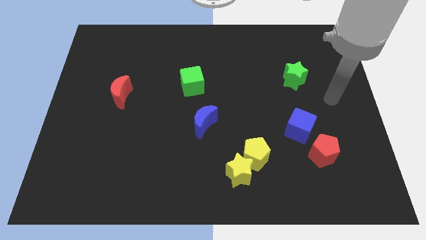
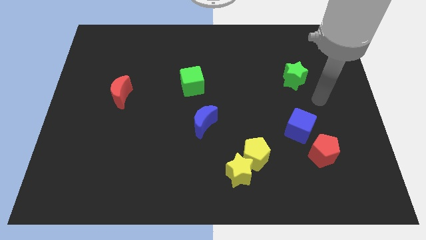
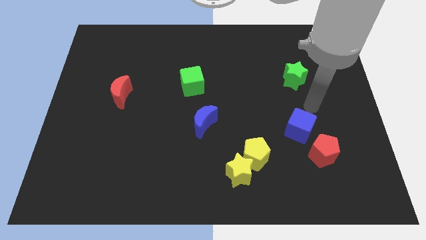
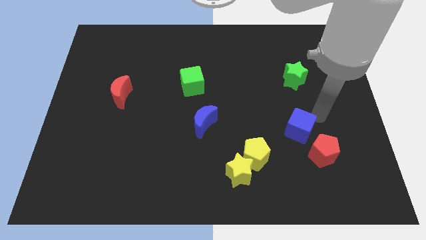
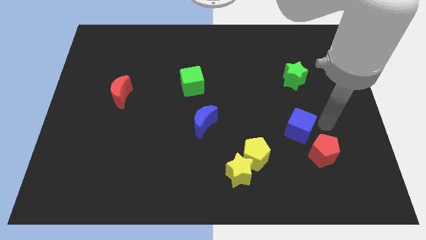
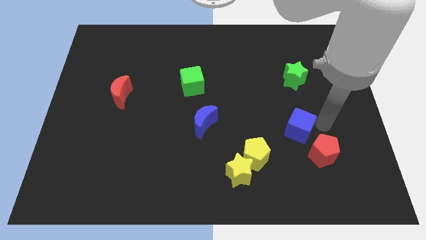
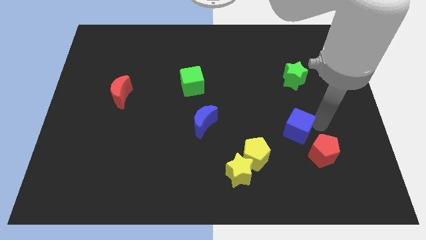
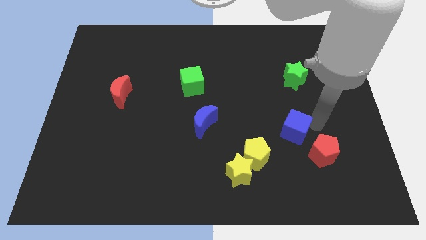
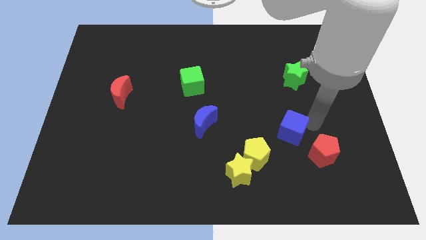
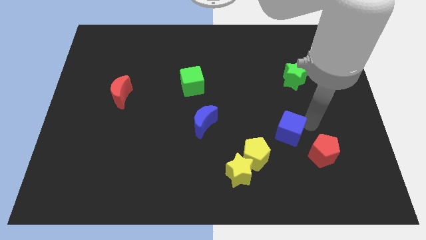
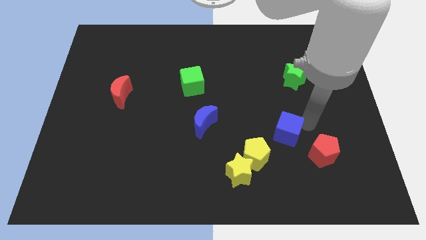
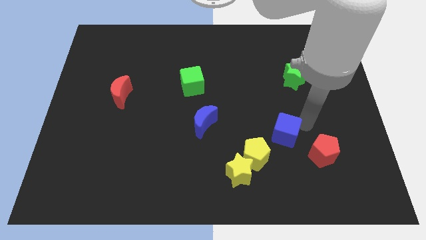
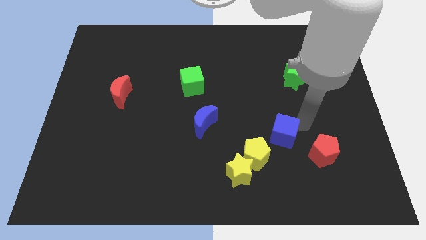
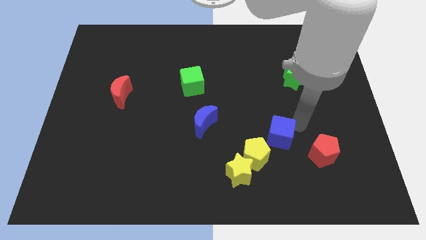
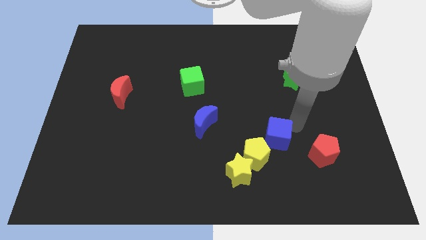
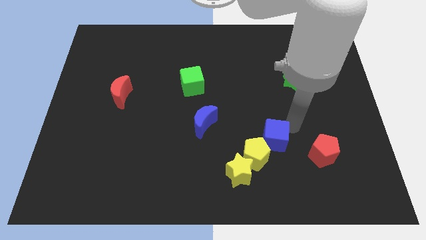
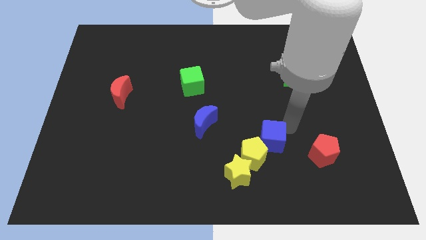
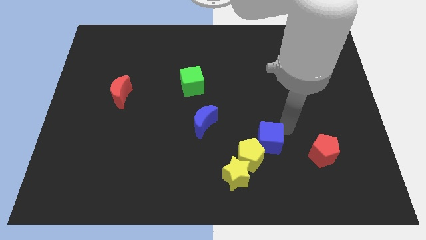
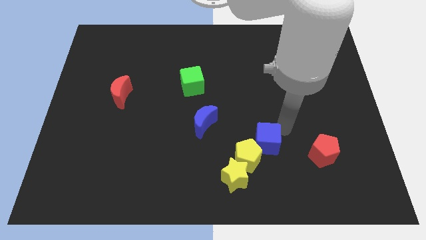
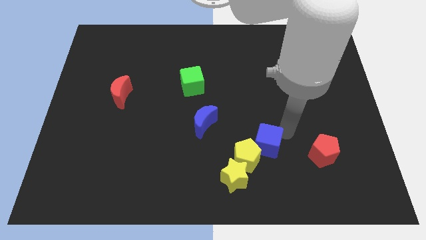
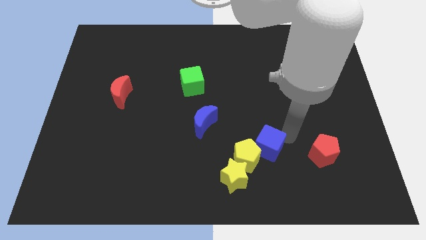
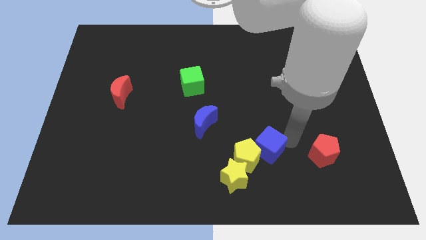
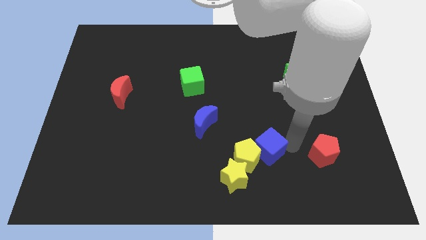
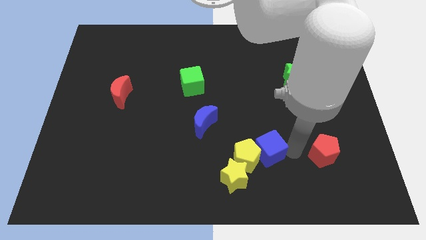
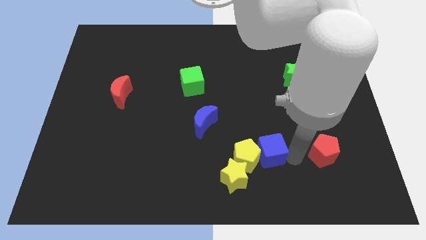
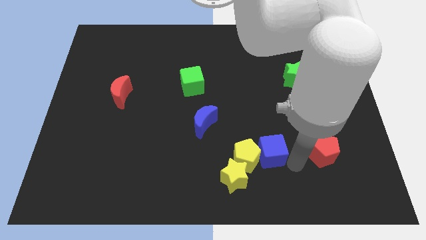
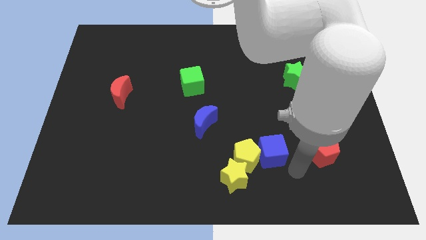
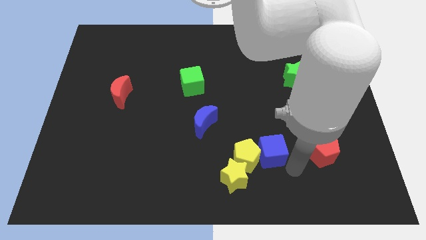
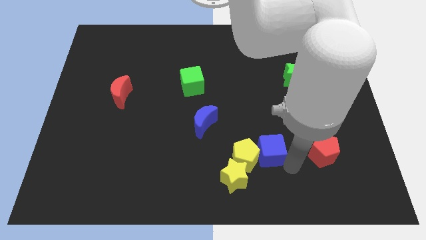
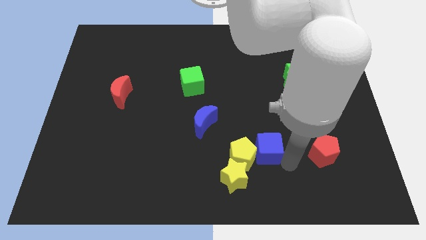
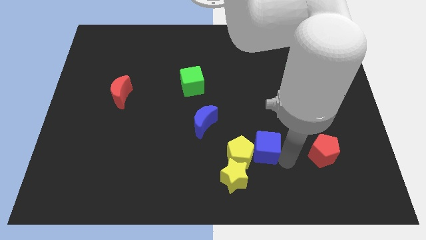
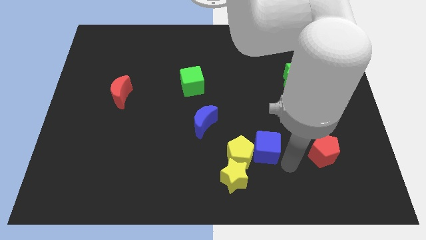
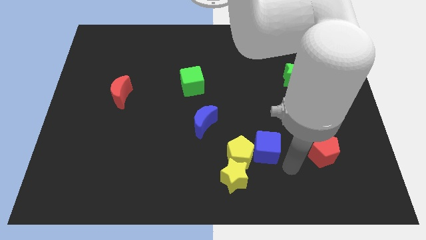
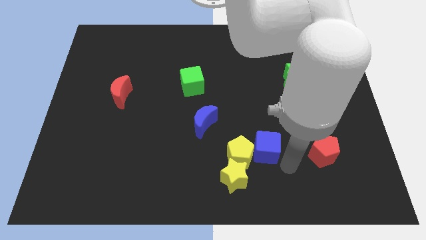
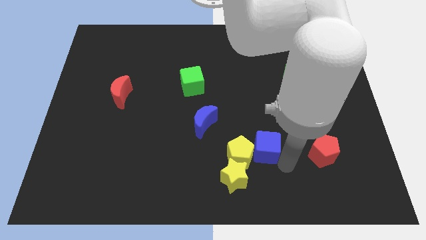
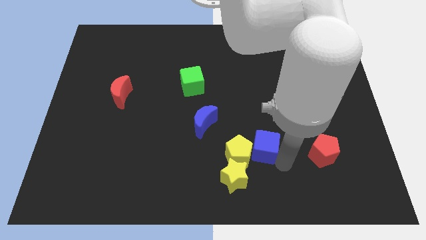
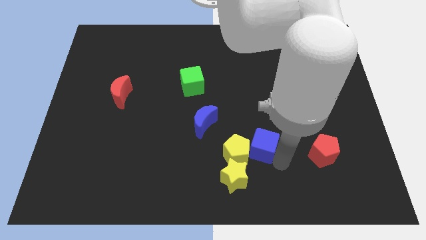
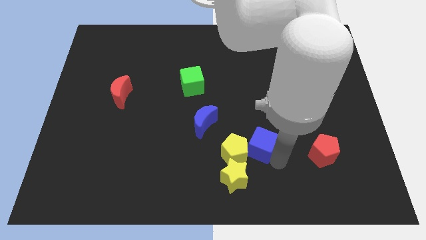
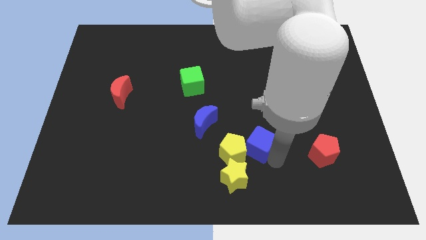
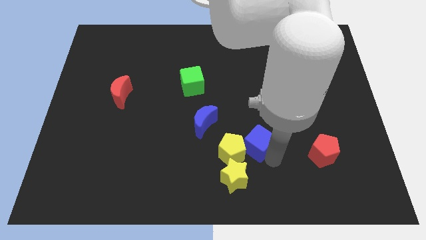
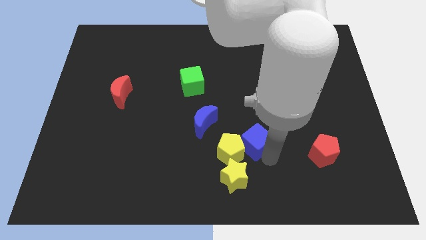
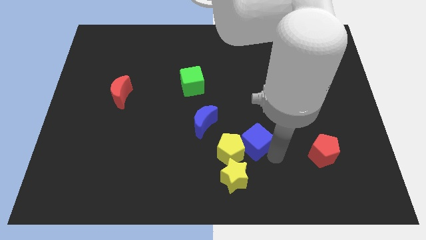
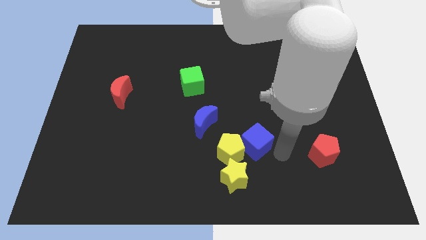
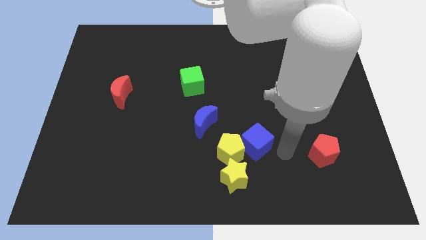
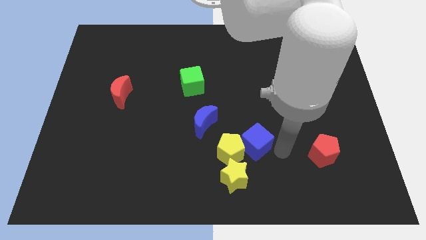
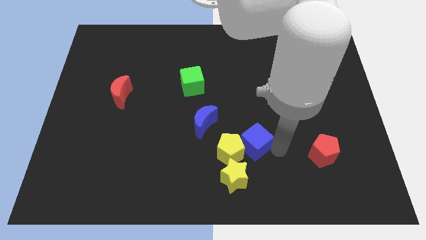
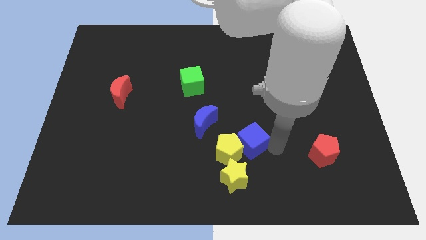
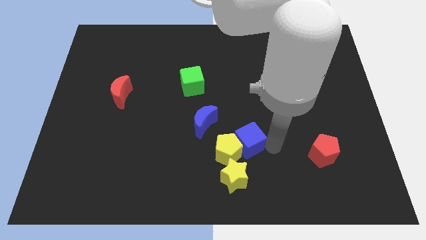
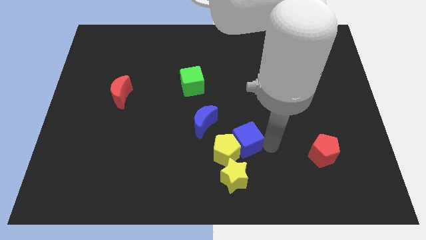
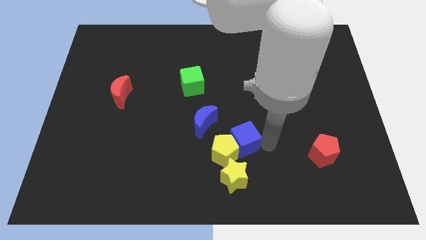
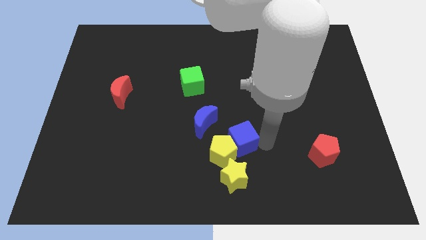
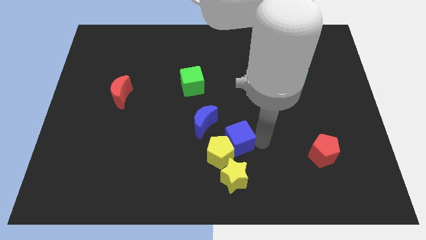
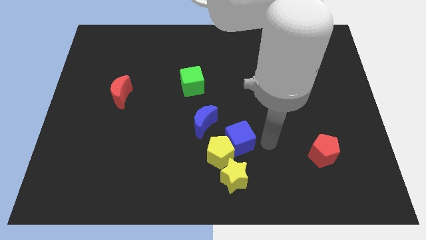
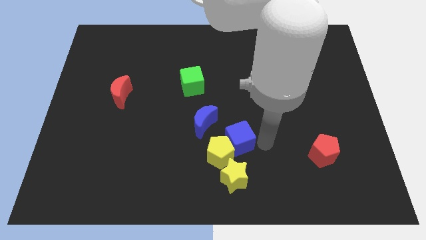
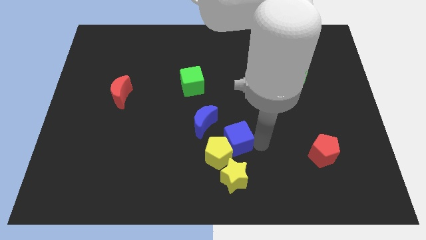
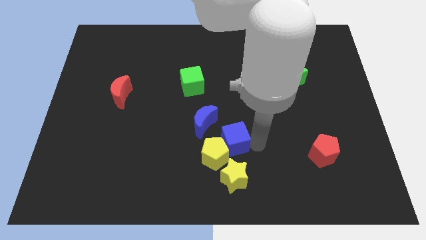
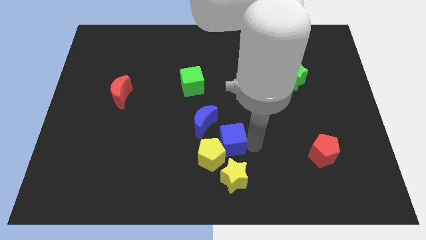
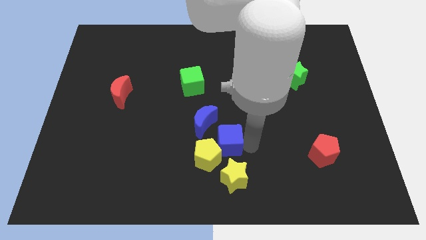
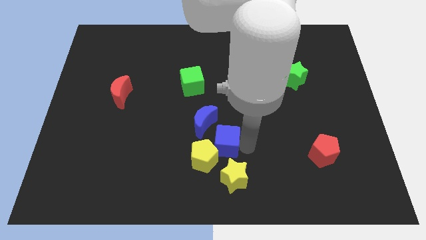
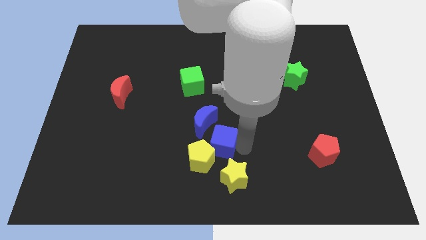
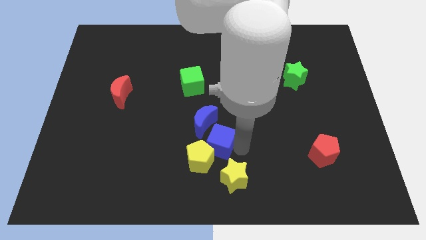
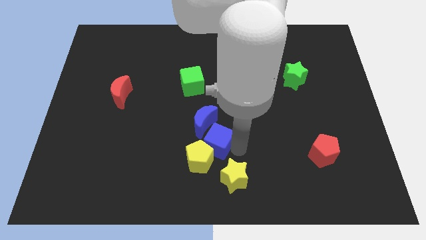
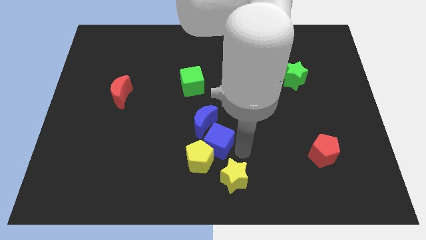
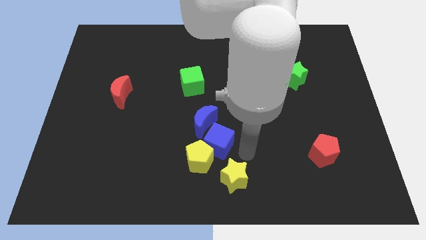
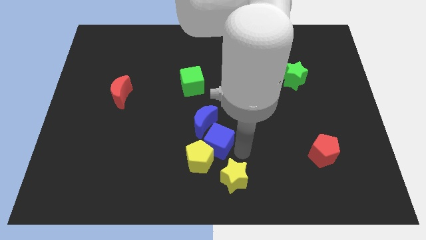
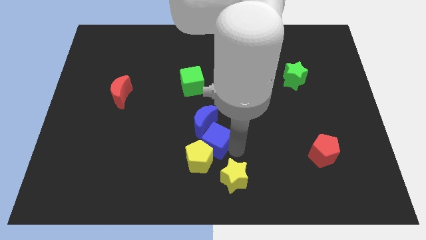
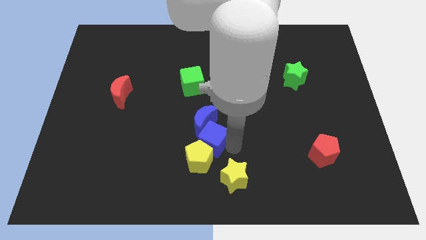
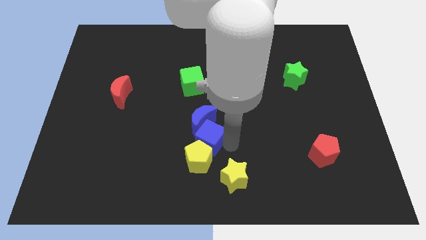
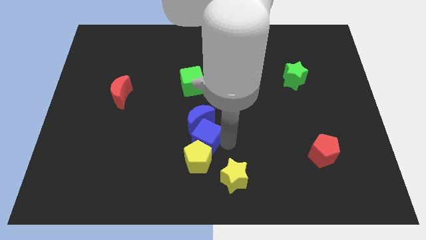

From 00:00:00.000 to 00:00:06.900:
move the blue cube to the bottom left side of the blue moon
